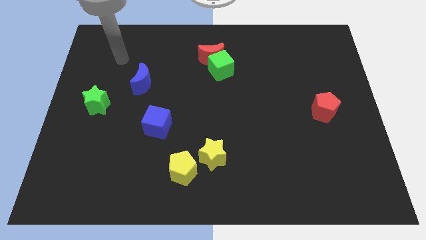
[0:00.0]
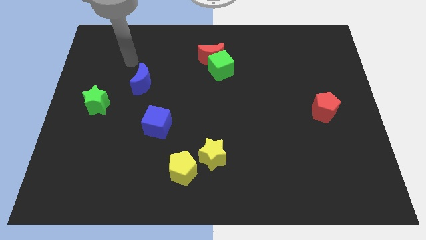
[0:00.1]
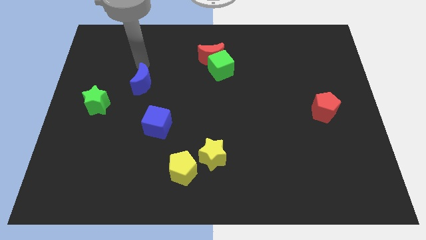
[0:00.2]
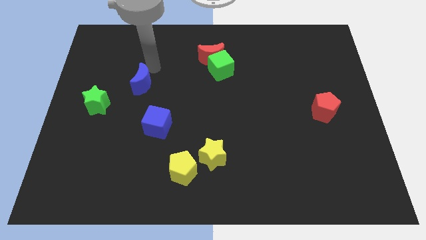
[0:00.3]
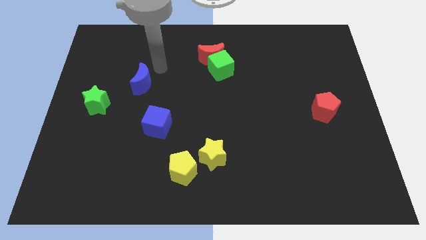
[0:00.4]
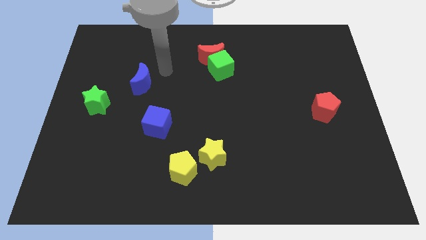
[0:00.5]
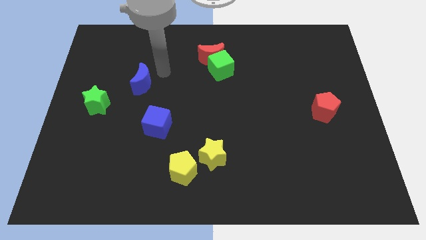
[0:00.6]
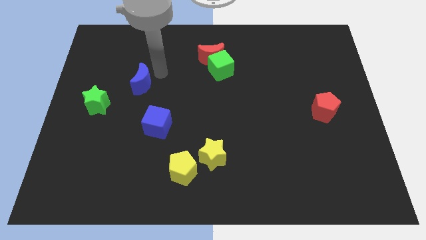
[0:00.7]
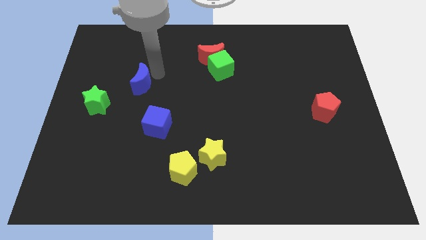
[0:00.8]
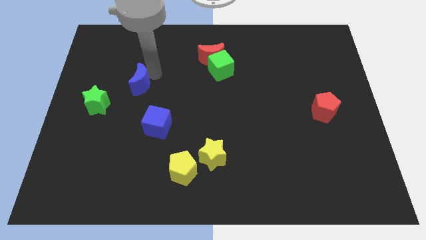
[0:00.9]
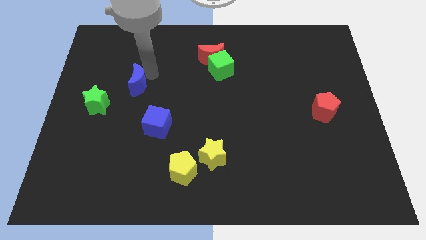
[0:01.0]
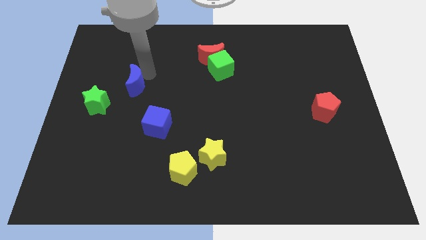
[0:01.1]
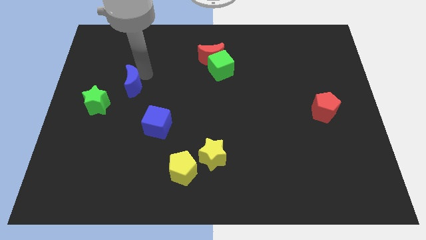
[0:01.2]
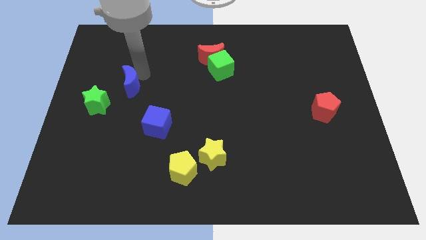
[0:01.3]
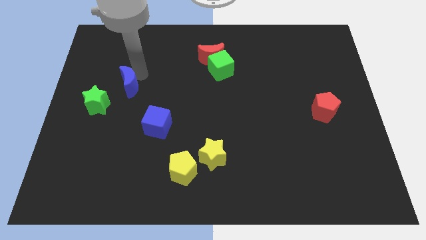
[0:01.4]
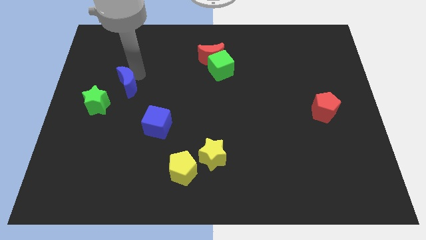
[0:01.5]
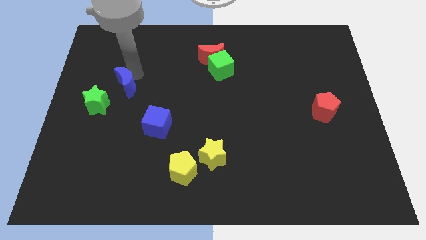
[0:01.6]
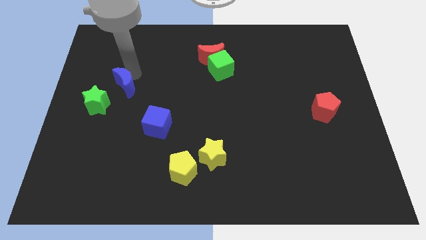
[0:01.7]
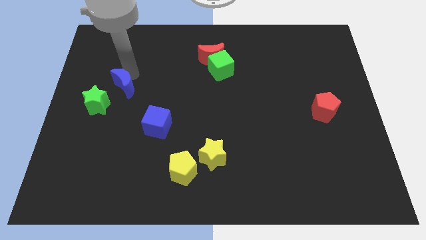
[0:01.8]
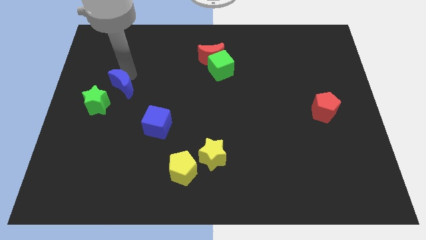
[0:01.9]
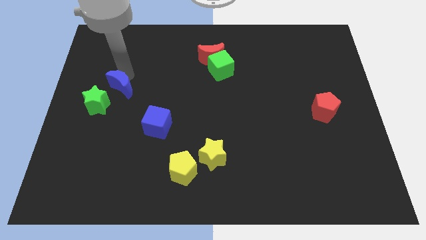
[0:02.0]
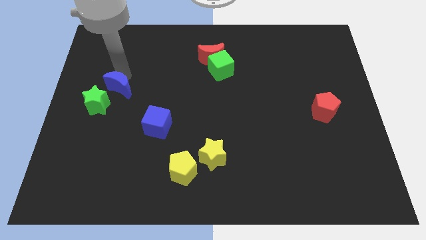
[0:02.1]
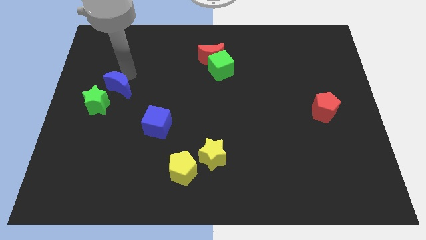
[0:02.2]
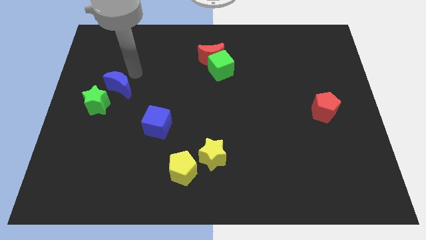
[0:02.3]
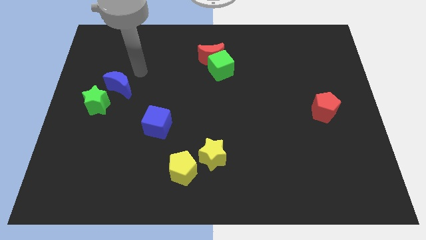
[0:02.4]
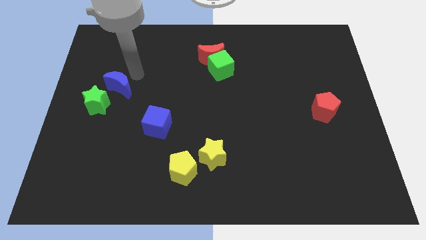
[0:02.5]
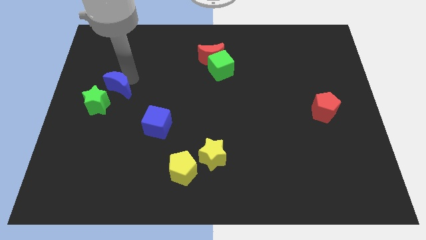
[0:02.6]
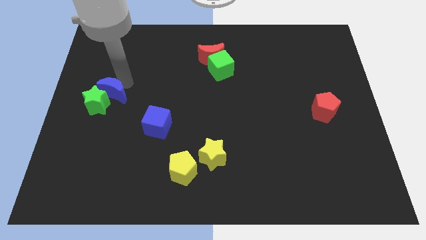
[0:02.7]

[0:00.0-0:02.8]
move the blue moon close to the green star

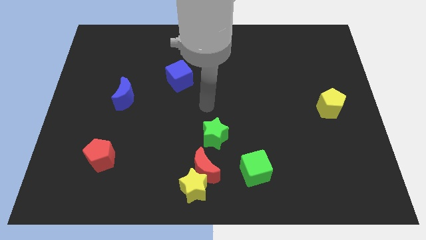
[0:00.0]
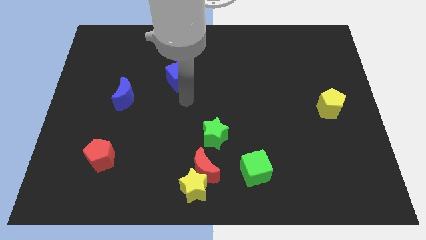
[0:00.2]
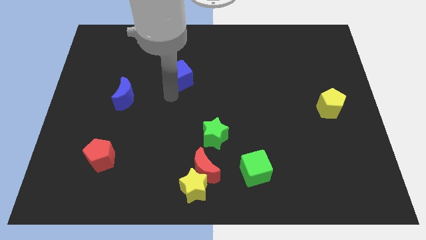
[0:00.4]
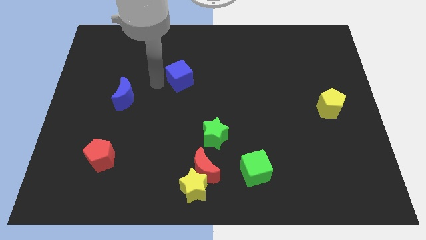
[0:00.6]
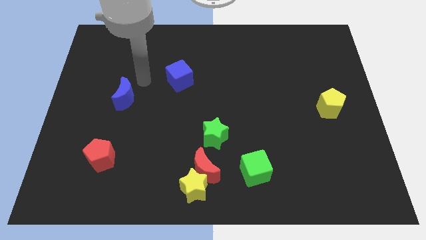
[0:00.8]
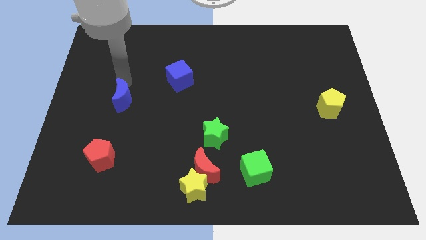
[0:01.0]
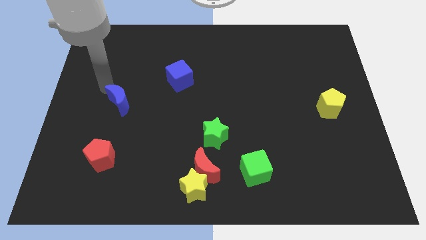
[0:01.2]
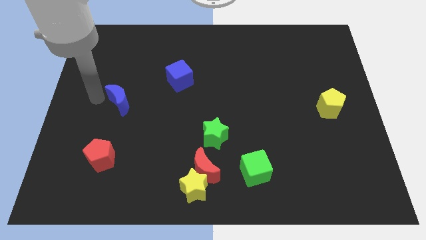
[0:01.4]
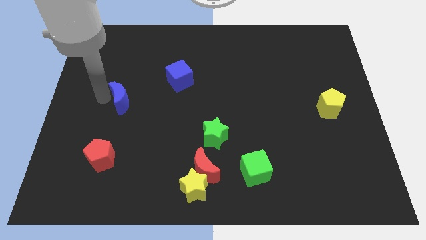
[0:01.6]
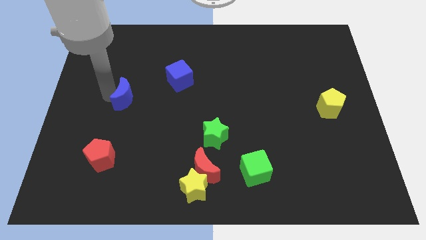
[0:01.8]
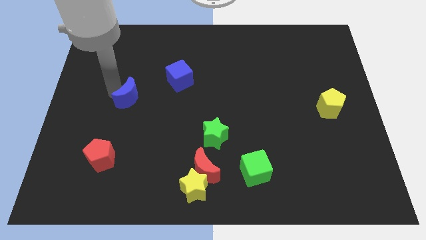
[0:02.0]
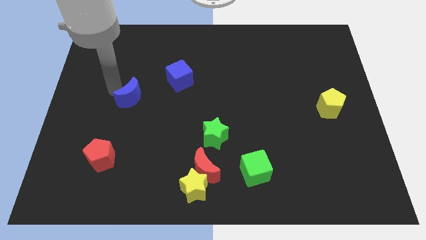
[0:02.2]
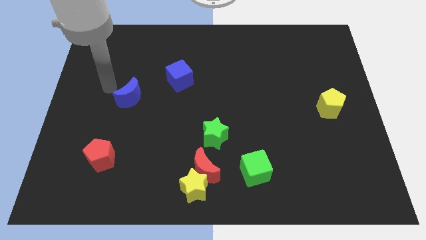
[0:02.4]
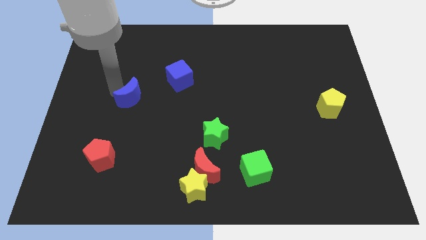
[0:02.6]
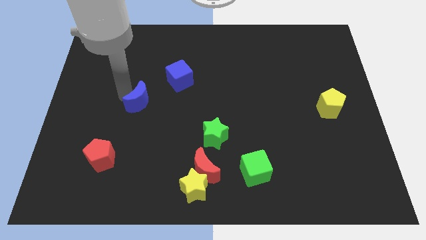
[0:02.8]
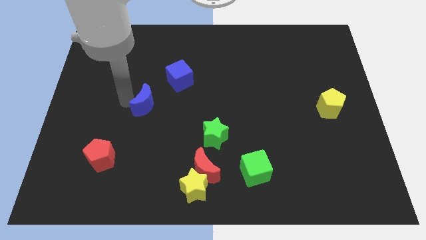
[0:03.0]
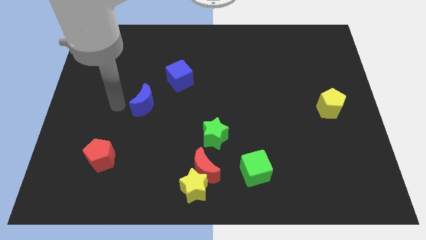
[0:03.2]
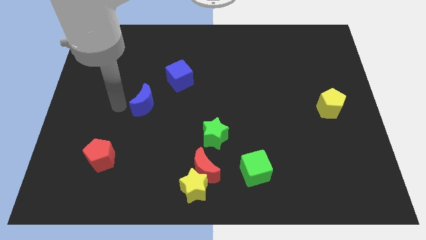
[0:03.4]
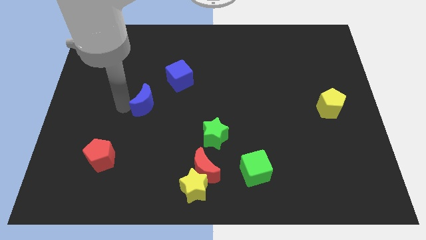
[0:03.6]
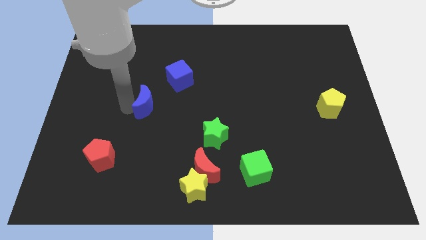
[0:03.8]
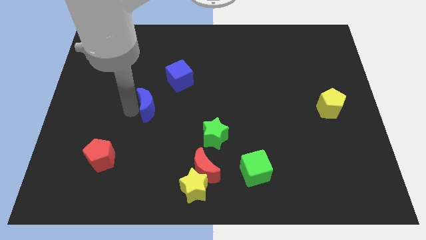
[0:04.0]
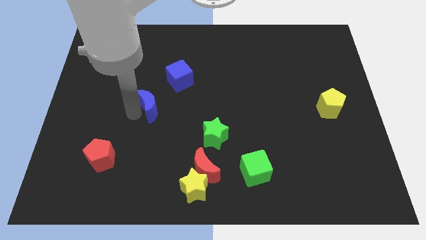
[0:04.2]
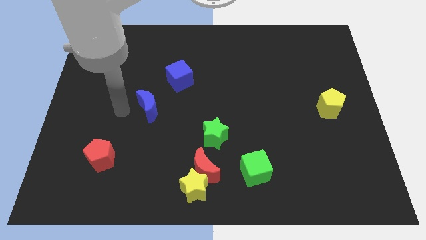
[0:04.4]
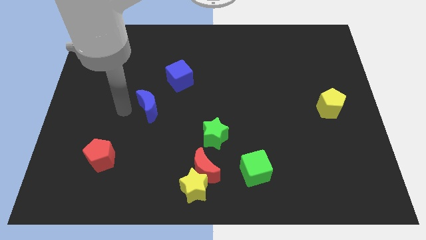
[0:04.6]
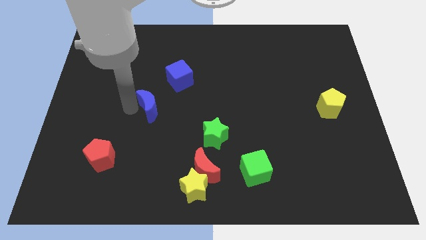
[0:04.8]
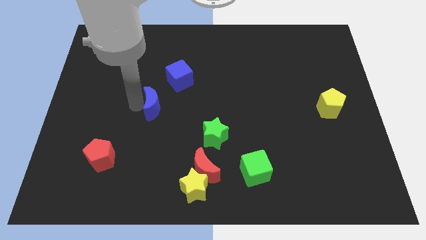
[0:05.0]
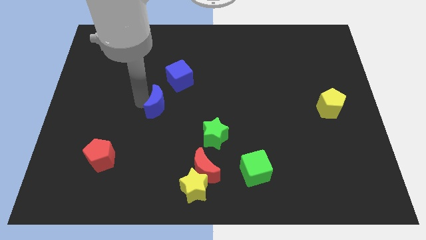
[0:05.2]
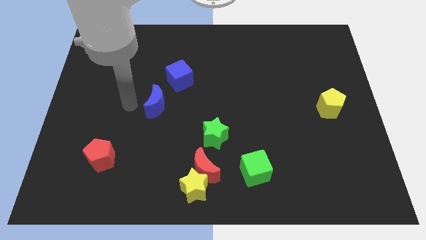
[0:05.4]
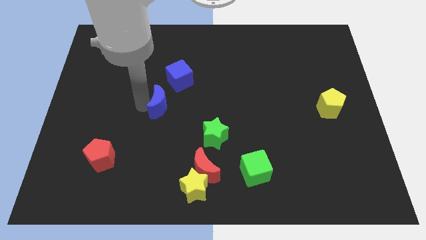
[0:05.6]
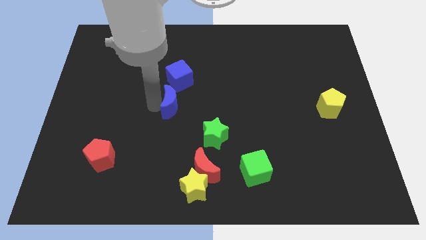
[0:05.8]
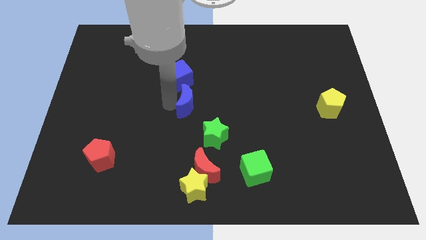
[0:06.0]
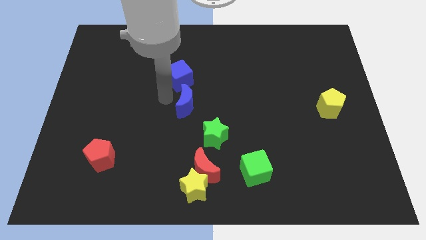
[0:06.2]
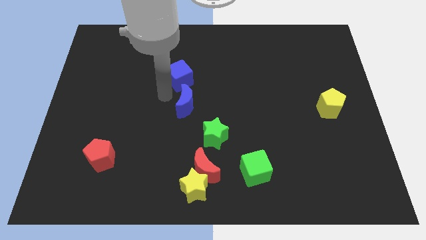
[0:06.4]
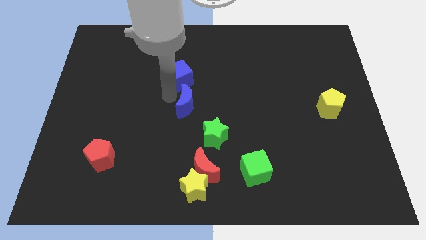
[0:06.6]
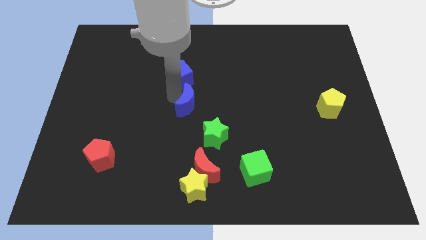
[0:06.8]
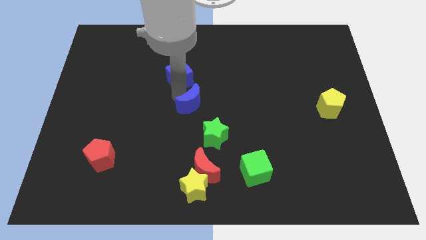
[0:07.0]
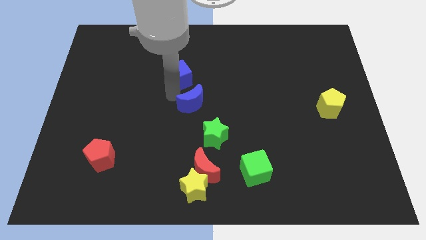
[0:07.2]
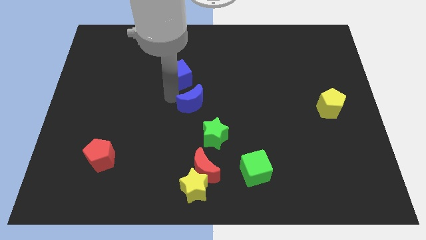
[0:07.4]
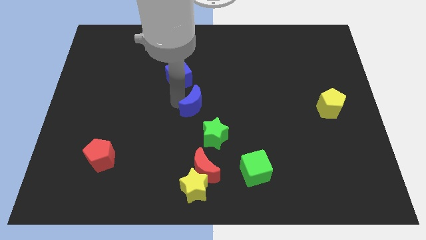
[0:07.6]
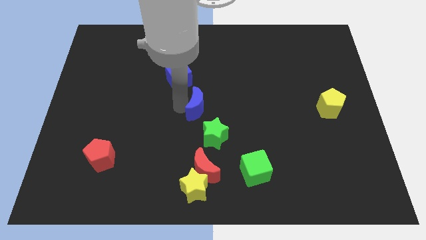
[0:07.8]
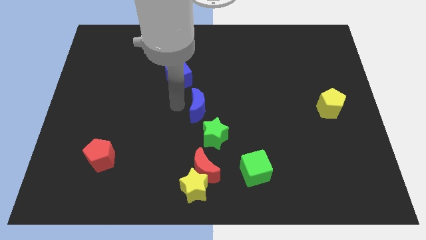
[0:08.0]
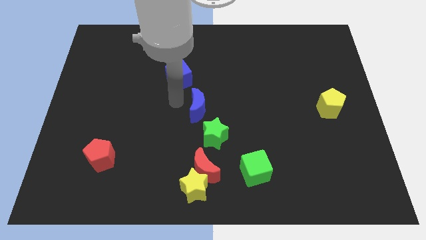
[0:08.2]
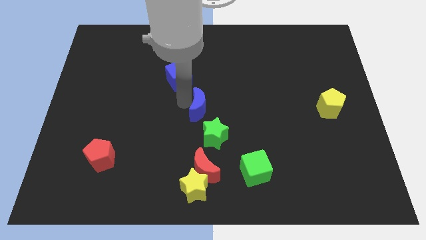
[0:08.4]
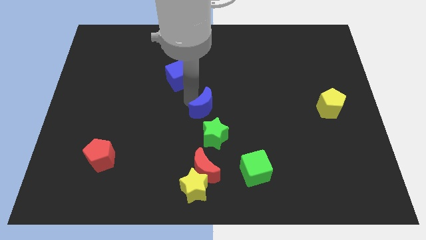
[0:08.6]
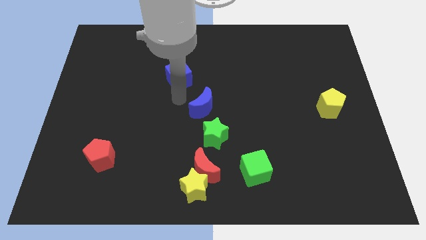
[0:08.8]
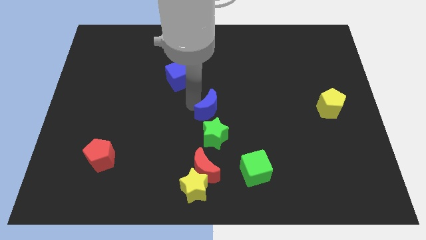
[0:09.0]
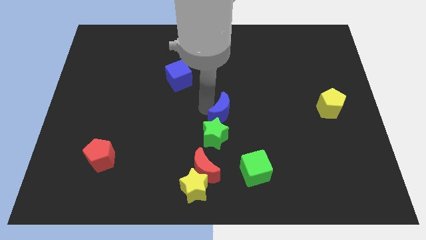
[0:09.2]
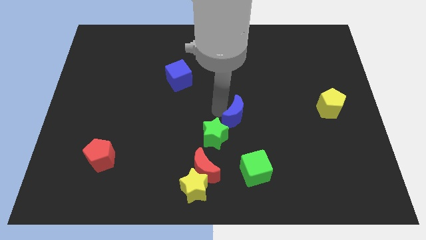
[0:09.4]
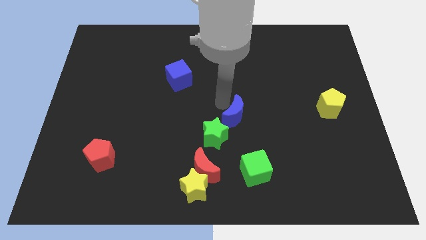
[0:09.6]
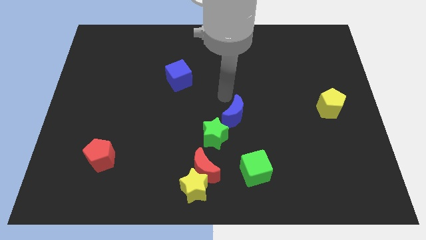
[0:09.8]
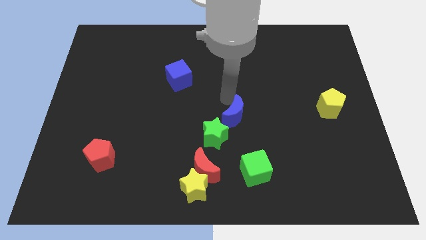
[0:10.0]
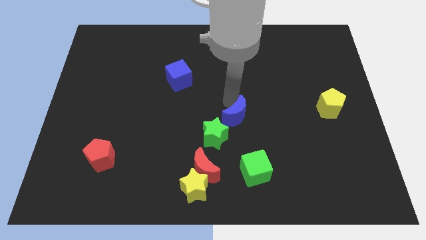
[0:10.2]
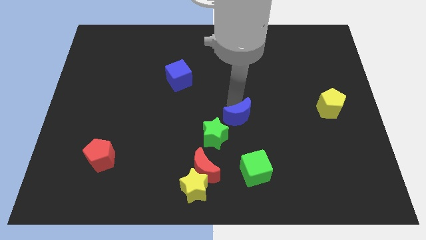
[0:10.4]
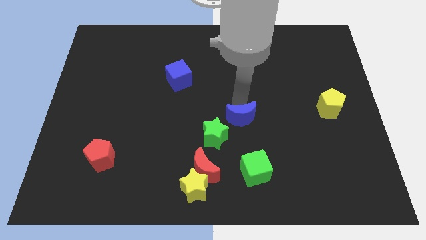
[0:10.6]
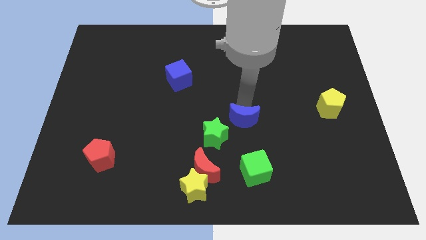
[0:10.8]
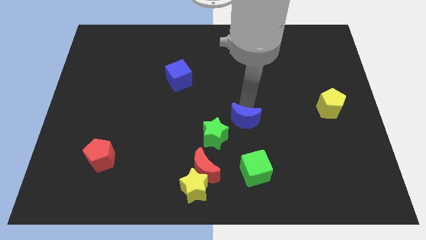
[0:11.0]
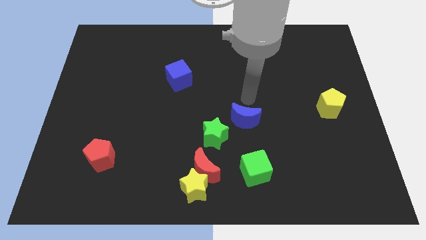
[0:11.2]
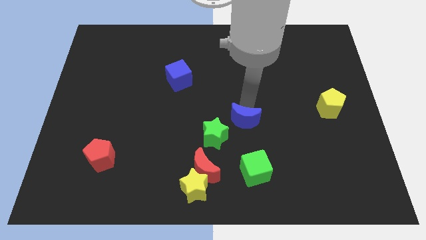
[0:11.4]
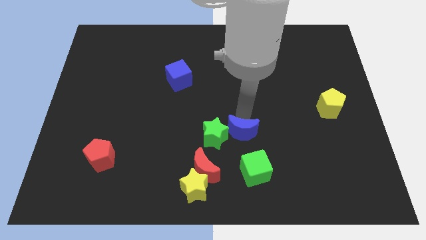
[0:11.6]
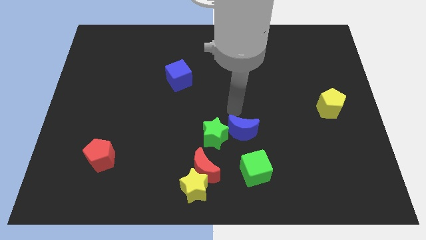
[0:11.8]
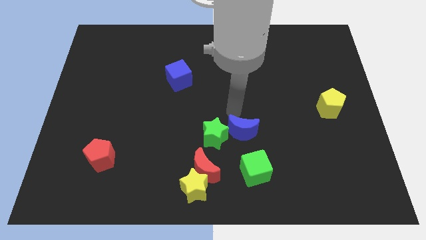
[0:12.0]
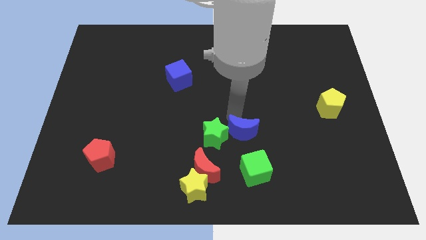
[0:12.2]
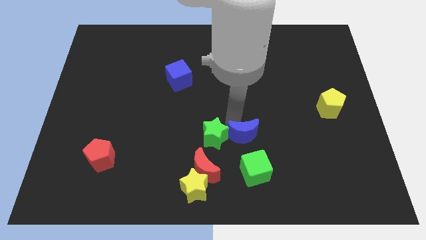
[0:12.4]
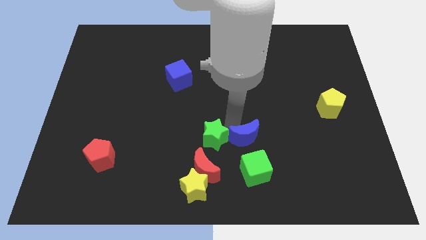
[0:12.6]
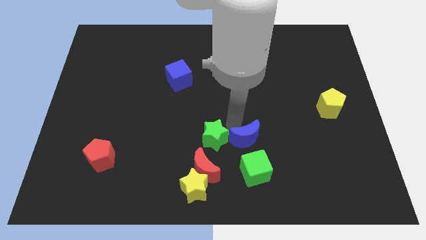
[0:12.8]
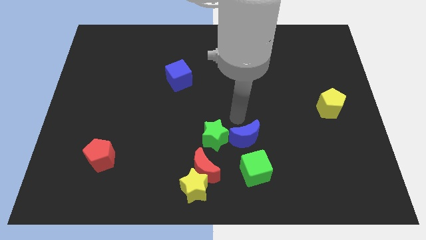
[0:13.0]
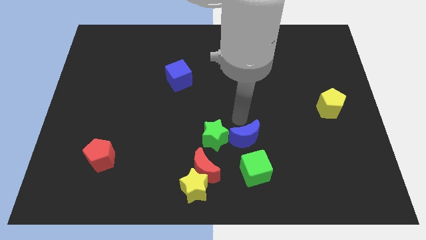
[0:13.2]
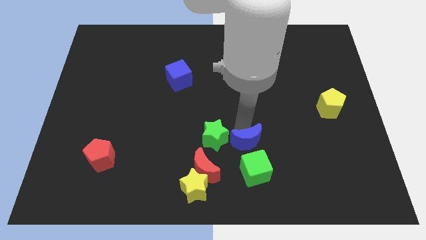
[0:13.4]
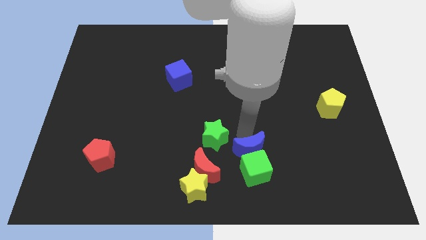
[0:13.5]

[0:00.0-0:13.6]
push the blue moon close to the green cube
